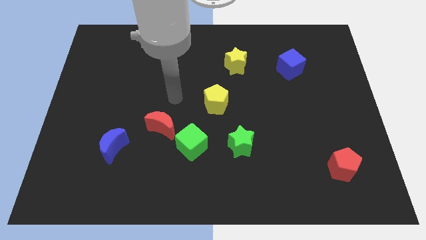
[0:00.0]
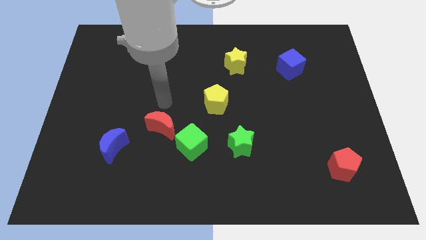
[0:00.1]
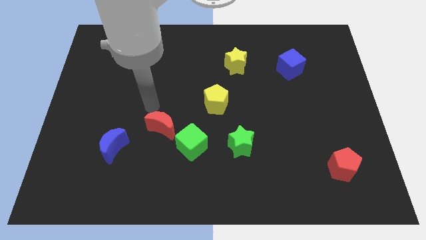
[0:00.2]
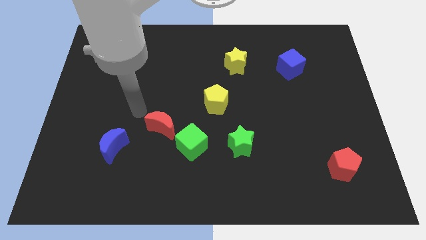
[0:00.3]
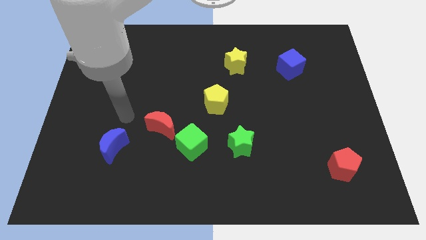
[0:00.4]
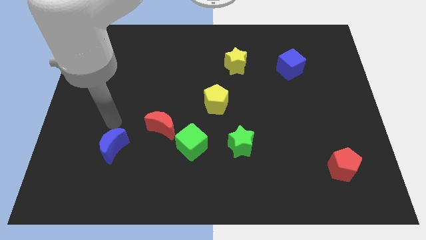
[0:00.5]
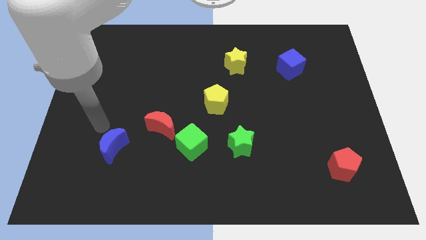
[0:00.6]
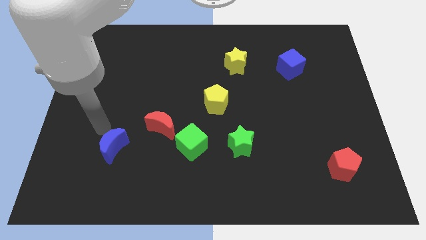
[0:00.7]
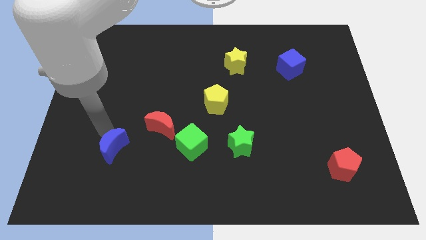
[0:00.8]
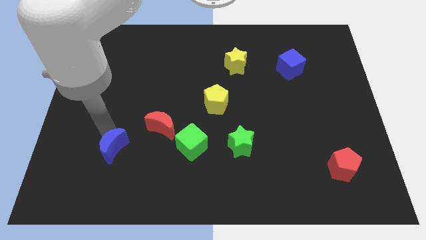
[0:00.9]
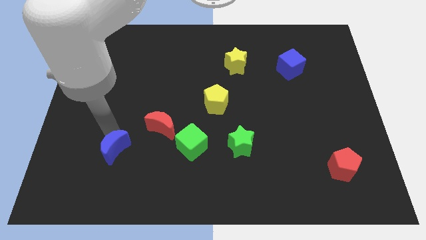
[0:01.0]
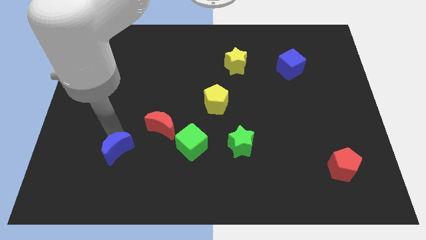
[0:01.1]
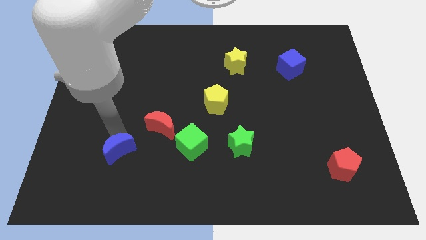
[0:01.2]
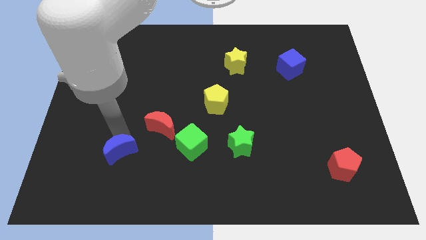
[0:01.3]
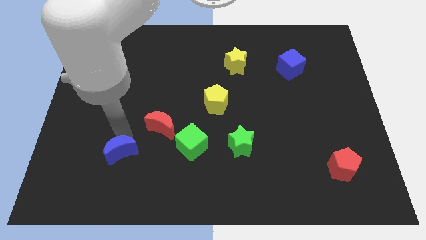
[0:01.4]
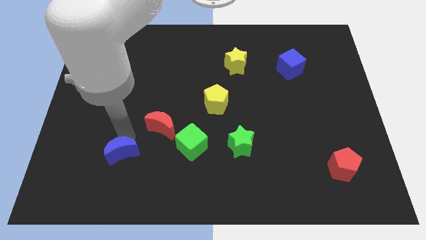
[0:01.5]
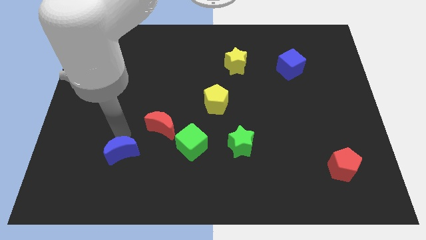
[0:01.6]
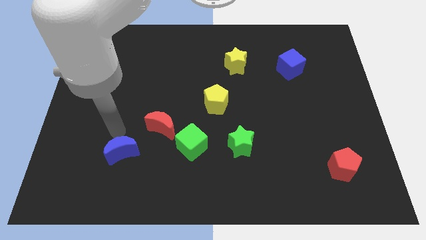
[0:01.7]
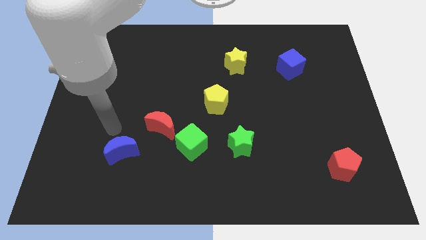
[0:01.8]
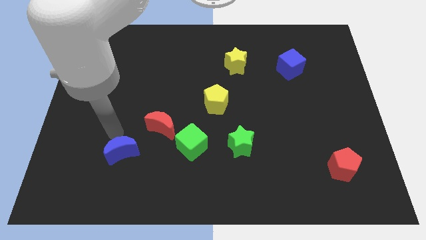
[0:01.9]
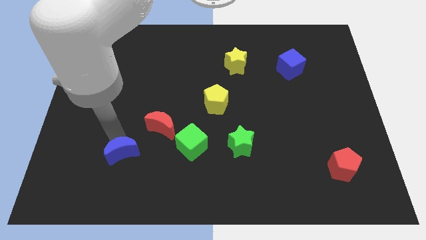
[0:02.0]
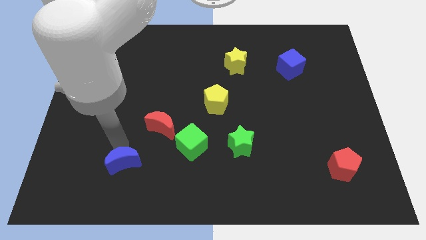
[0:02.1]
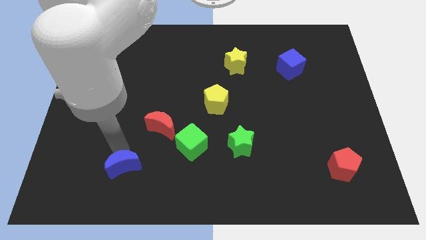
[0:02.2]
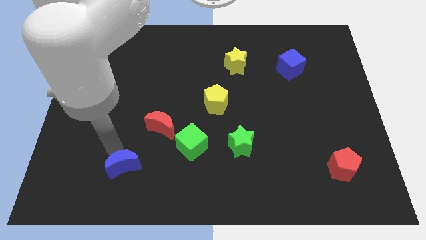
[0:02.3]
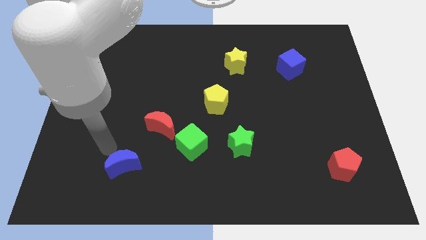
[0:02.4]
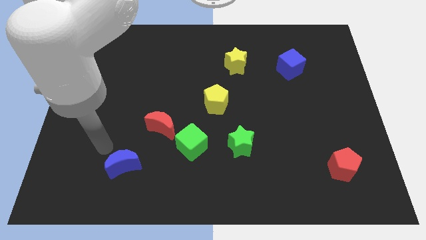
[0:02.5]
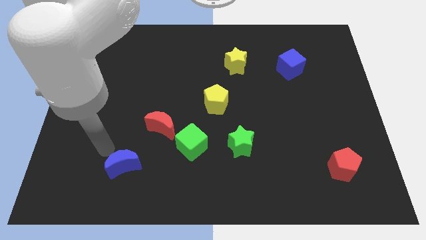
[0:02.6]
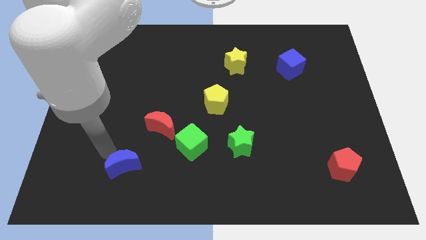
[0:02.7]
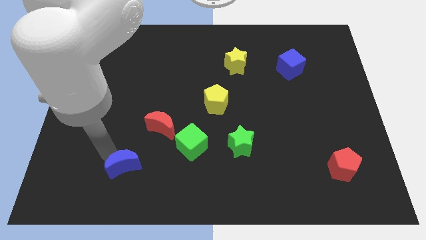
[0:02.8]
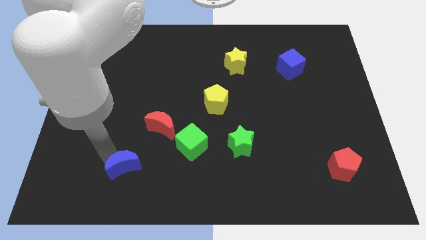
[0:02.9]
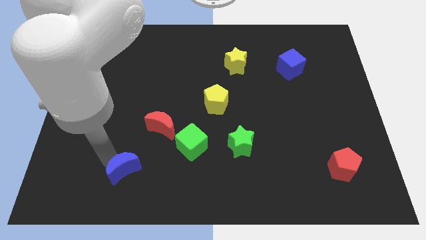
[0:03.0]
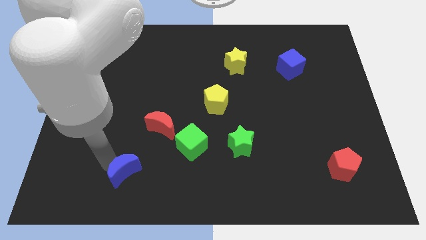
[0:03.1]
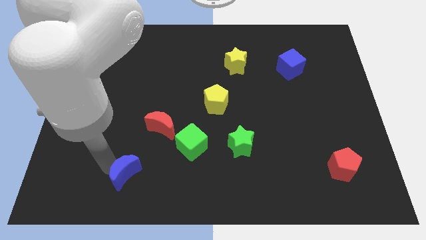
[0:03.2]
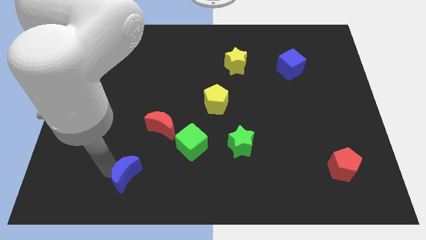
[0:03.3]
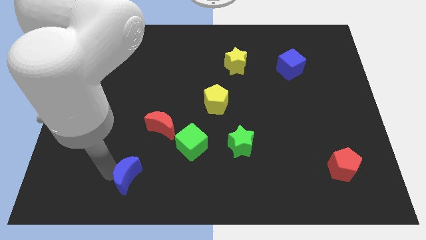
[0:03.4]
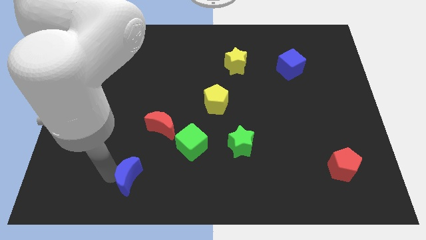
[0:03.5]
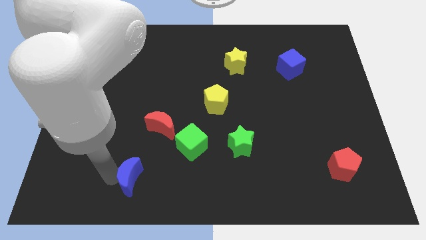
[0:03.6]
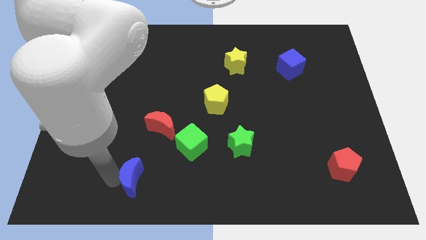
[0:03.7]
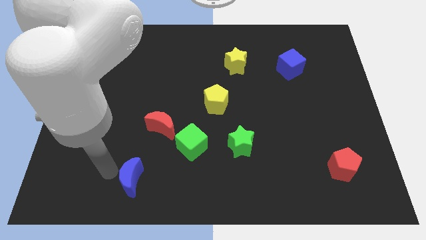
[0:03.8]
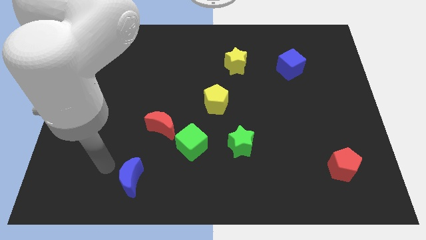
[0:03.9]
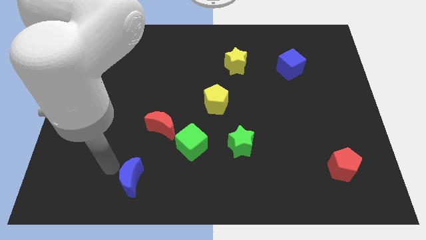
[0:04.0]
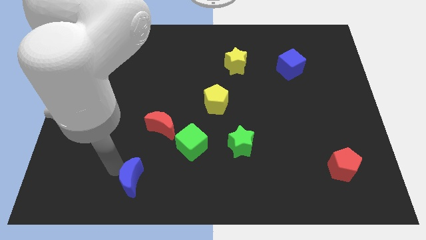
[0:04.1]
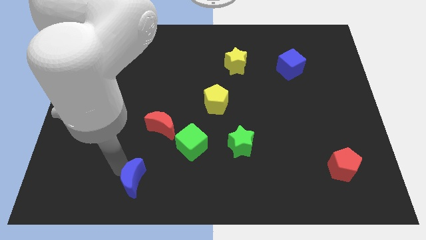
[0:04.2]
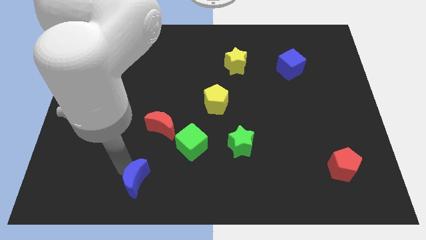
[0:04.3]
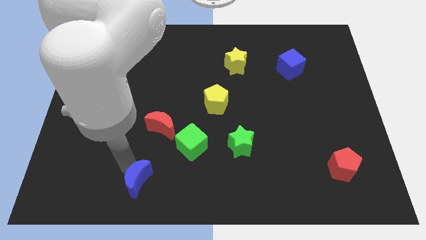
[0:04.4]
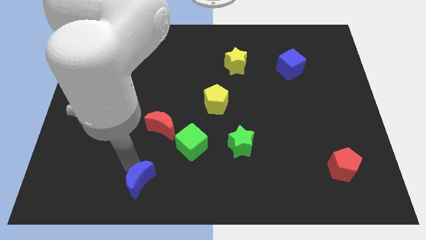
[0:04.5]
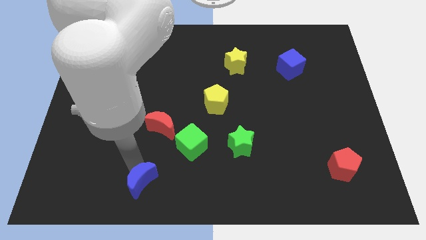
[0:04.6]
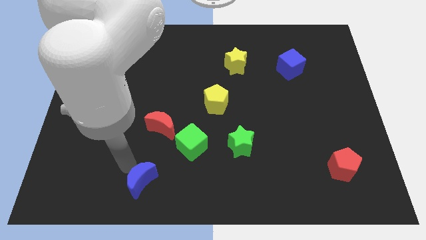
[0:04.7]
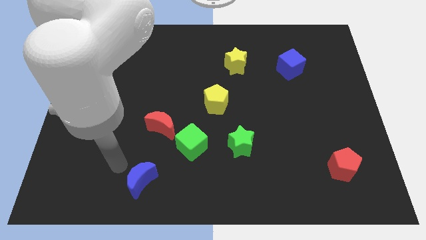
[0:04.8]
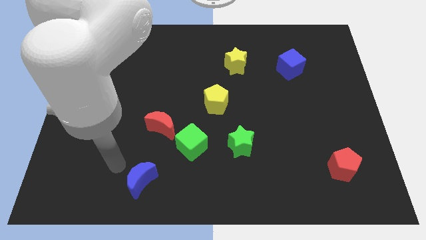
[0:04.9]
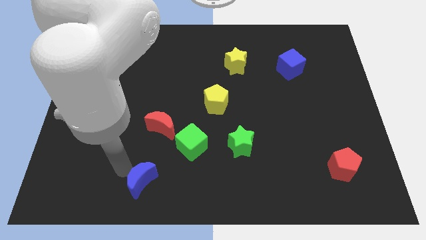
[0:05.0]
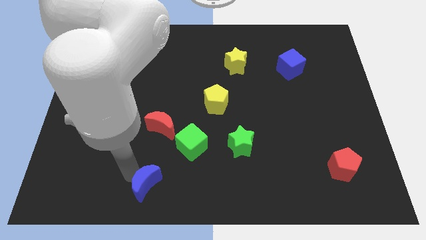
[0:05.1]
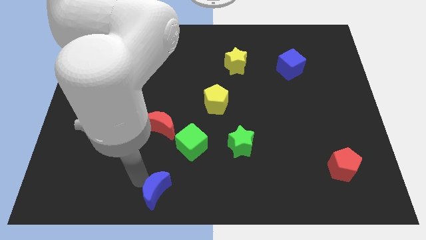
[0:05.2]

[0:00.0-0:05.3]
push the blue moon to the bottom side

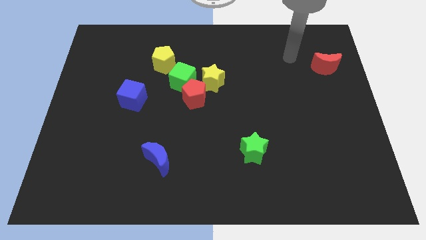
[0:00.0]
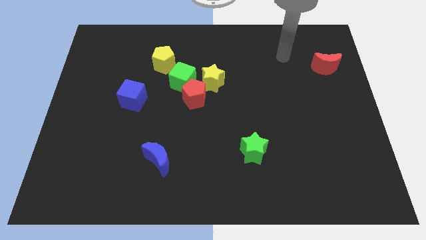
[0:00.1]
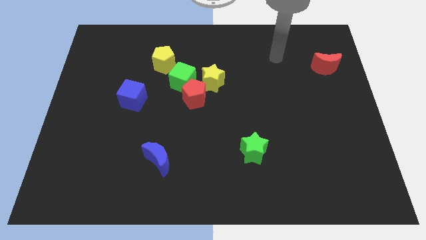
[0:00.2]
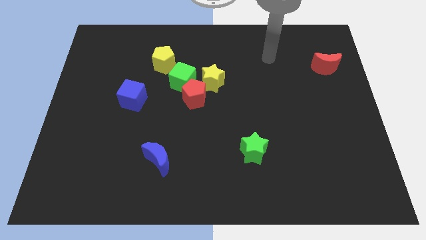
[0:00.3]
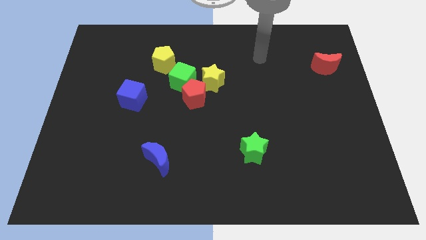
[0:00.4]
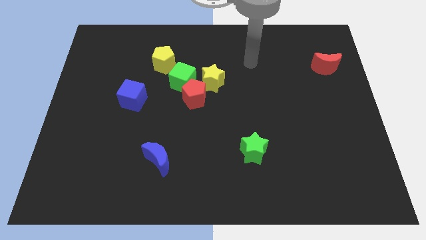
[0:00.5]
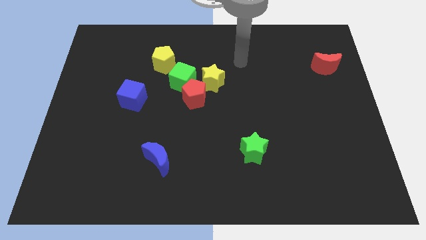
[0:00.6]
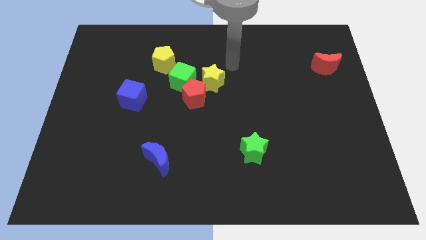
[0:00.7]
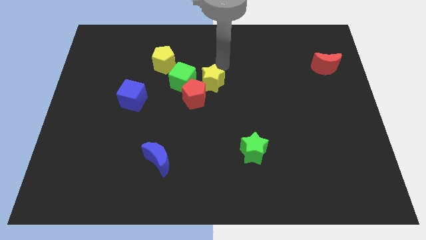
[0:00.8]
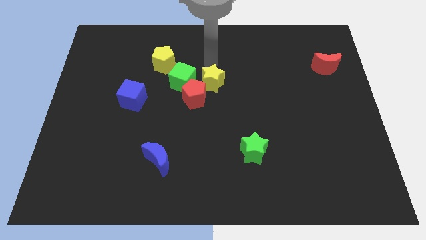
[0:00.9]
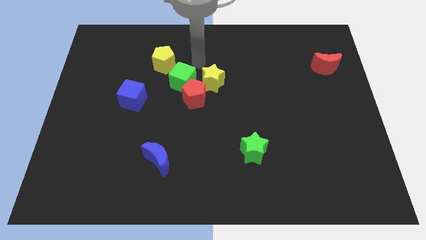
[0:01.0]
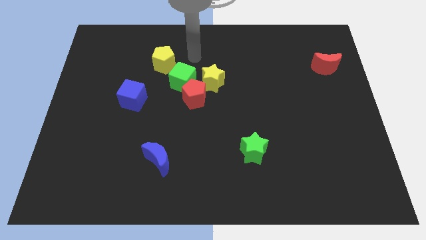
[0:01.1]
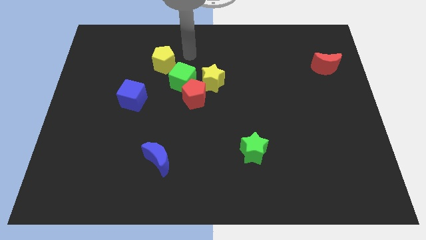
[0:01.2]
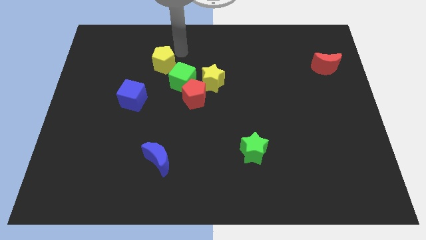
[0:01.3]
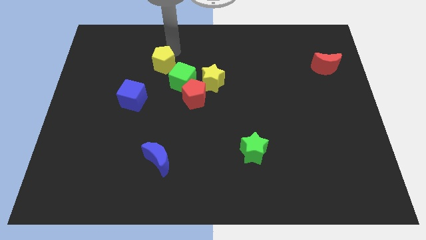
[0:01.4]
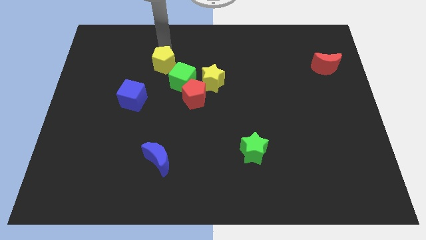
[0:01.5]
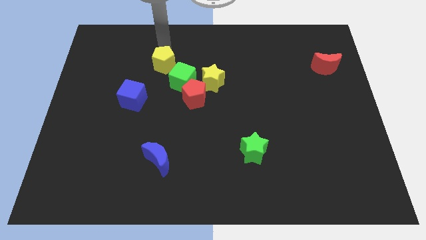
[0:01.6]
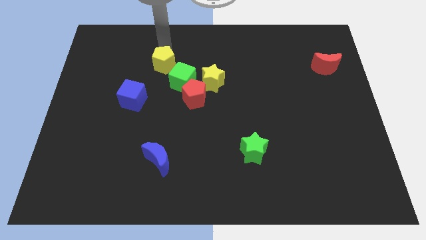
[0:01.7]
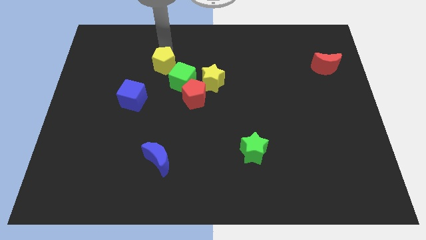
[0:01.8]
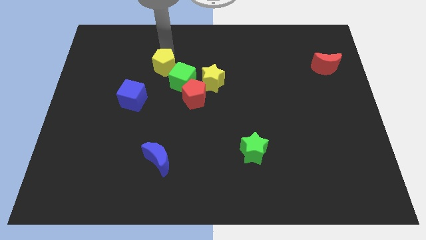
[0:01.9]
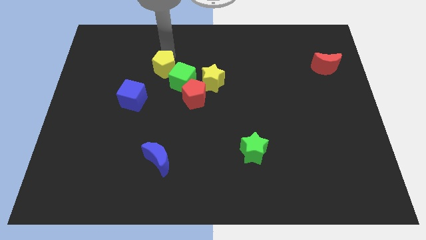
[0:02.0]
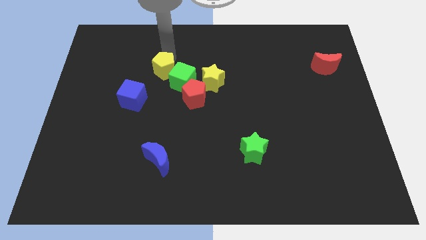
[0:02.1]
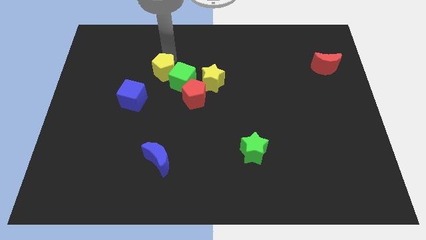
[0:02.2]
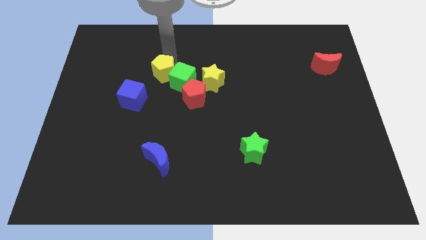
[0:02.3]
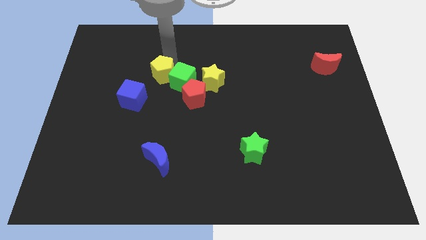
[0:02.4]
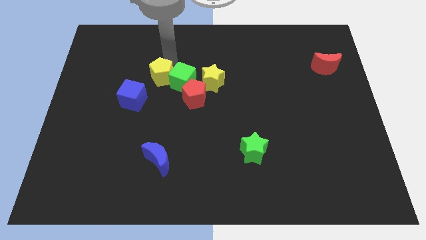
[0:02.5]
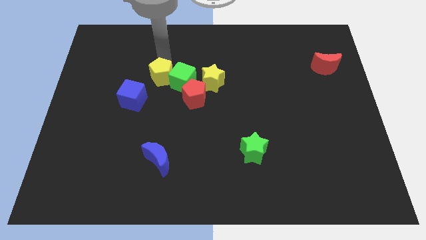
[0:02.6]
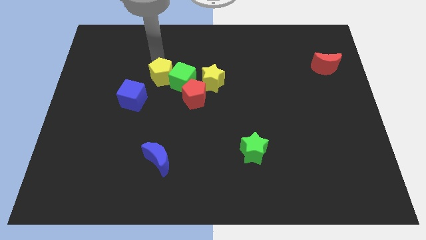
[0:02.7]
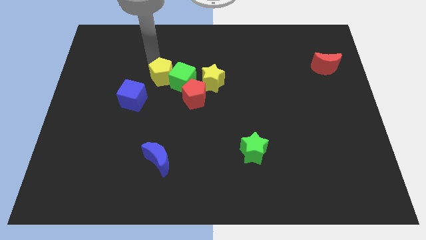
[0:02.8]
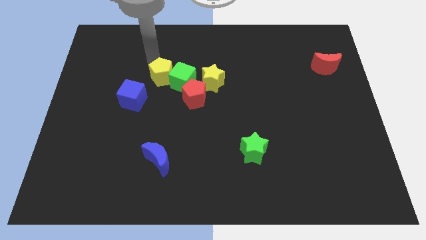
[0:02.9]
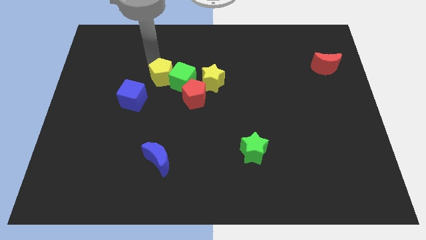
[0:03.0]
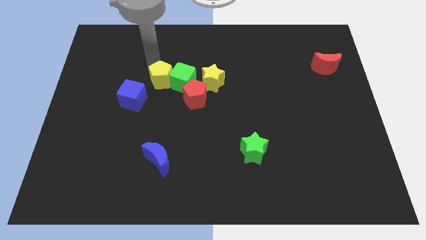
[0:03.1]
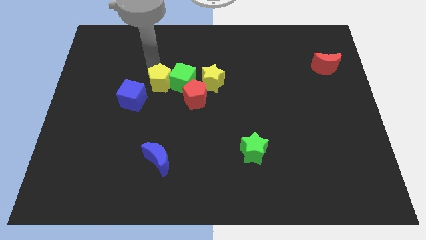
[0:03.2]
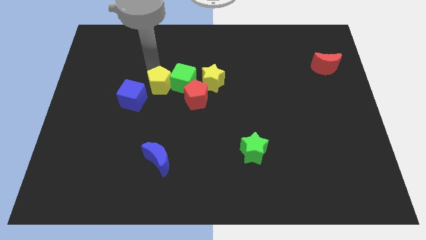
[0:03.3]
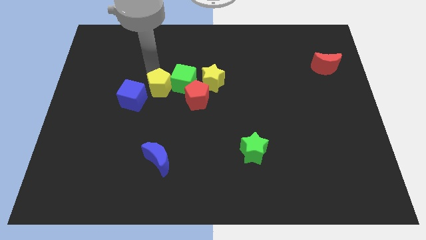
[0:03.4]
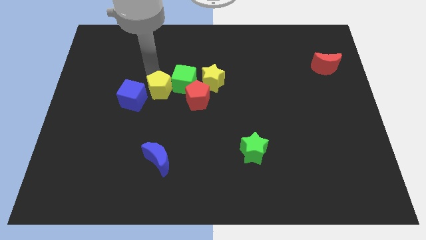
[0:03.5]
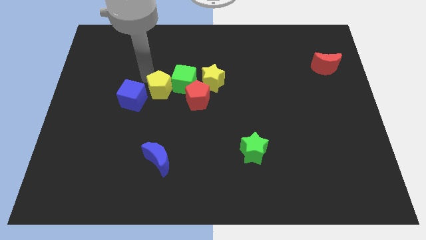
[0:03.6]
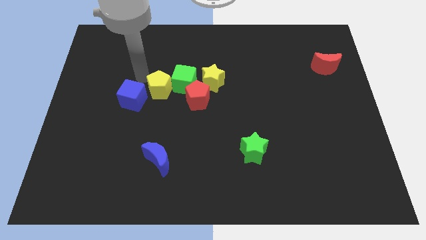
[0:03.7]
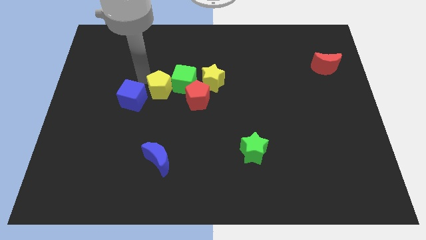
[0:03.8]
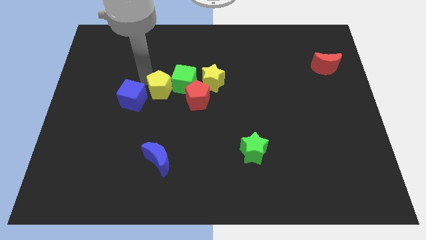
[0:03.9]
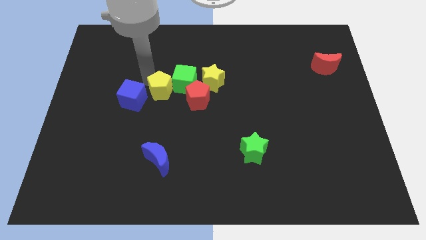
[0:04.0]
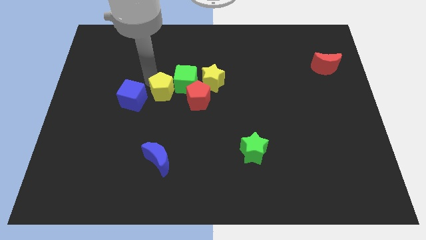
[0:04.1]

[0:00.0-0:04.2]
push the yellow pentagon to the middle of the board
